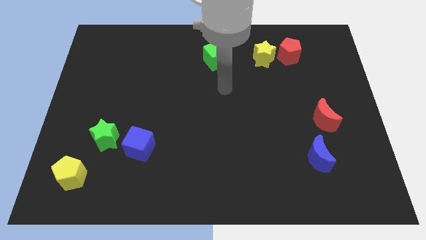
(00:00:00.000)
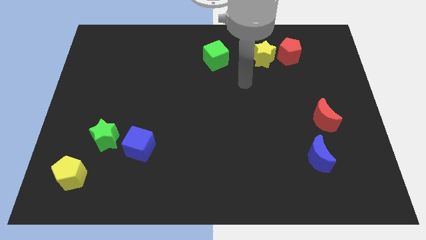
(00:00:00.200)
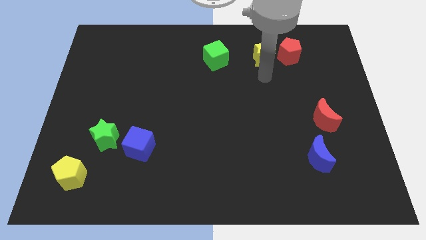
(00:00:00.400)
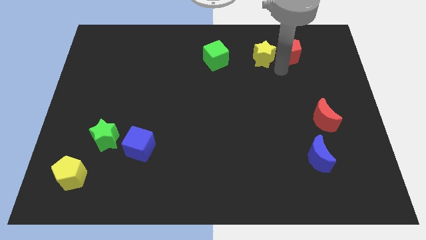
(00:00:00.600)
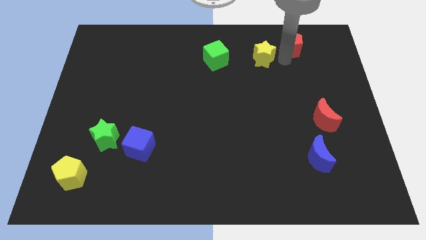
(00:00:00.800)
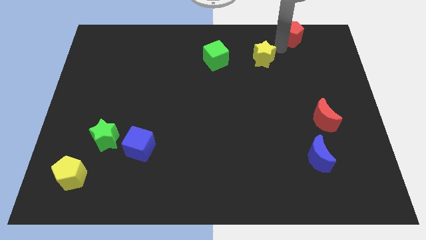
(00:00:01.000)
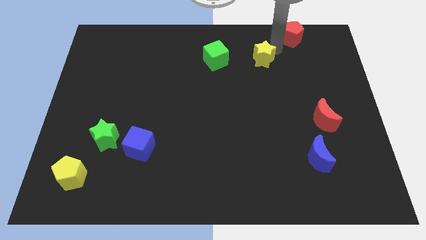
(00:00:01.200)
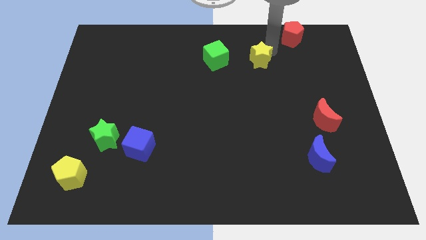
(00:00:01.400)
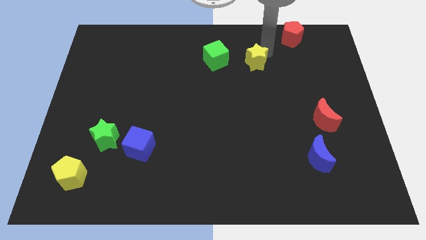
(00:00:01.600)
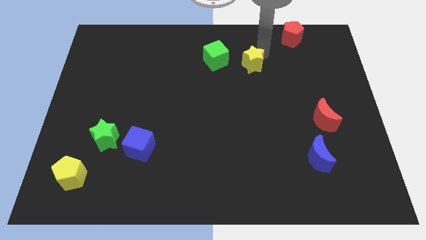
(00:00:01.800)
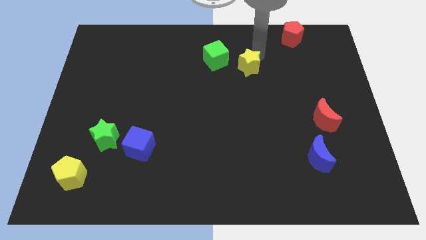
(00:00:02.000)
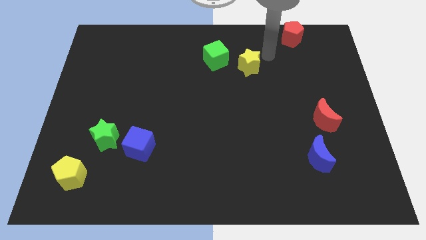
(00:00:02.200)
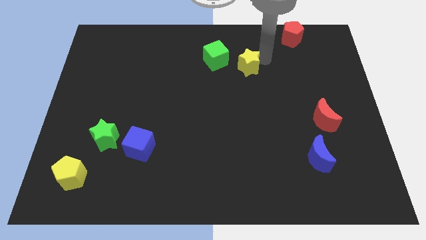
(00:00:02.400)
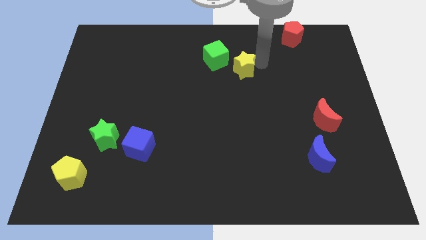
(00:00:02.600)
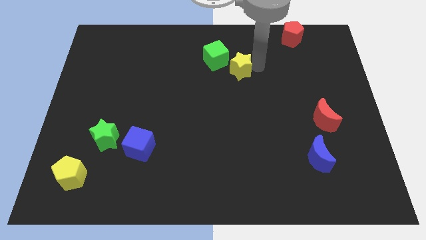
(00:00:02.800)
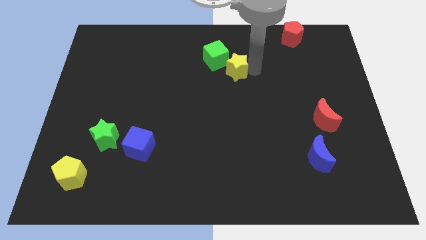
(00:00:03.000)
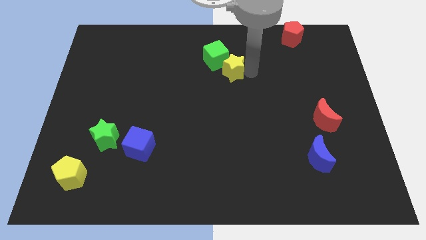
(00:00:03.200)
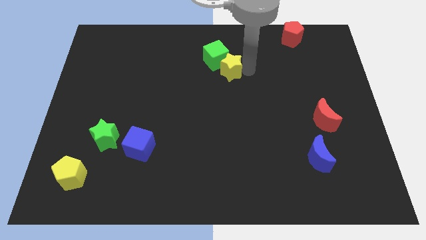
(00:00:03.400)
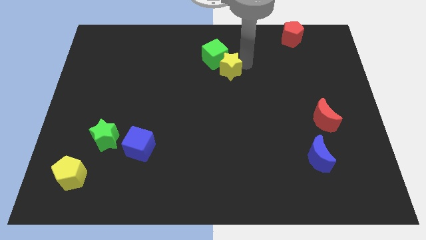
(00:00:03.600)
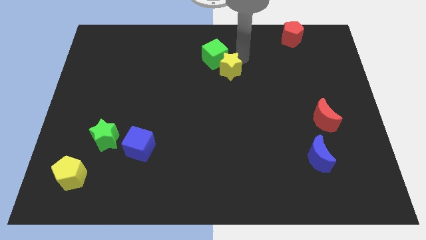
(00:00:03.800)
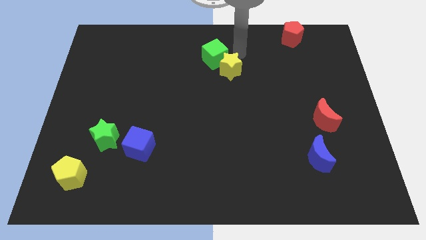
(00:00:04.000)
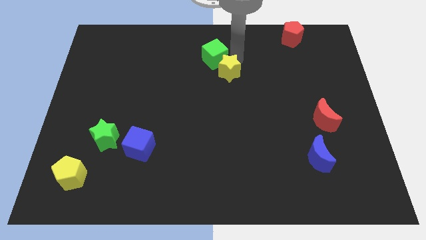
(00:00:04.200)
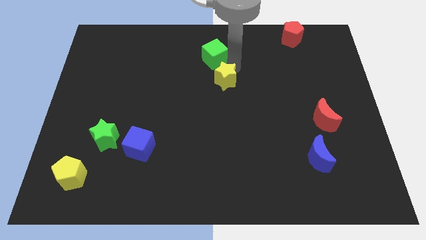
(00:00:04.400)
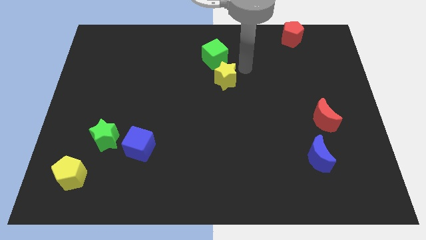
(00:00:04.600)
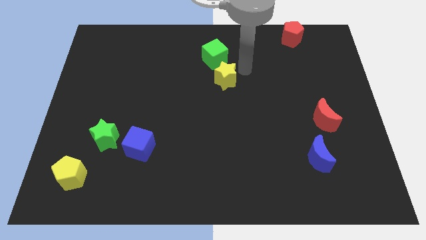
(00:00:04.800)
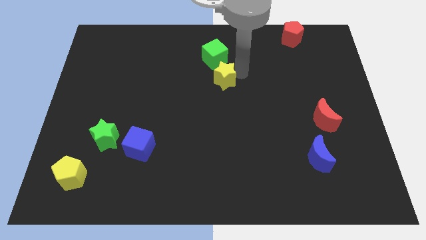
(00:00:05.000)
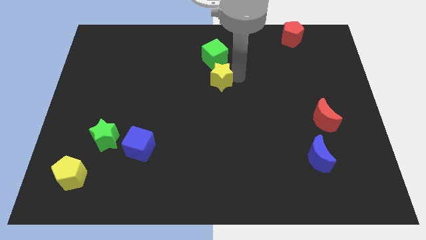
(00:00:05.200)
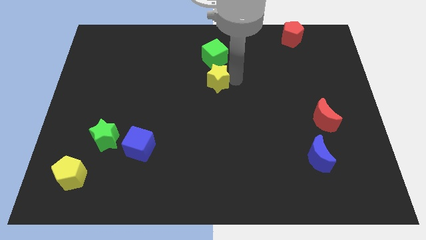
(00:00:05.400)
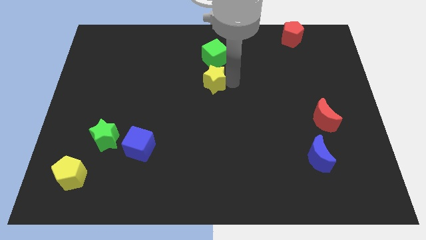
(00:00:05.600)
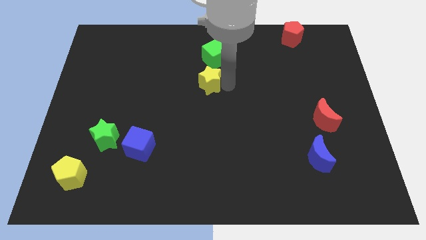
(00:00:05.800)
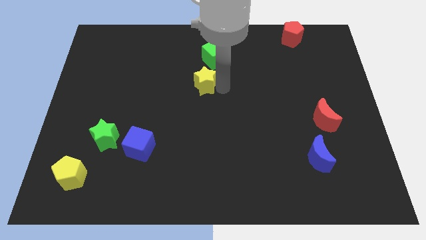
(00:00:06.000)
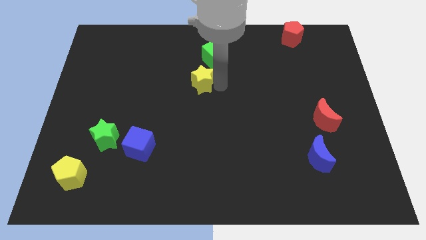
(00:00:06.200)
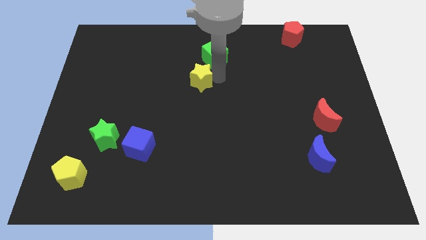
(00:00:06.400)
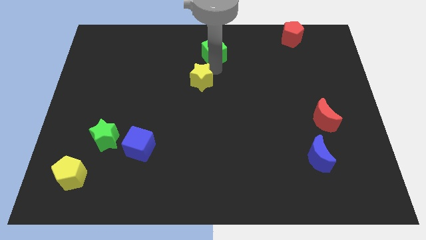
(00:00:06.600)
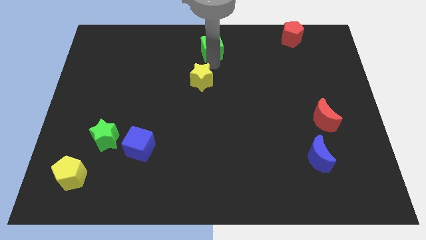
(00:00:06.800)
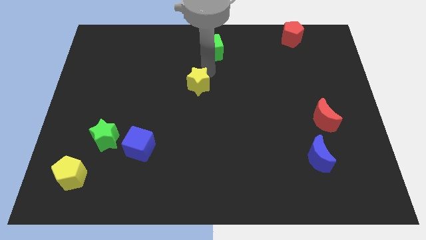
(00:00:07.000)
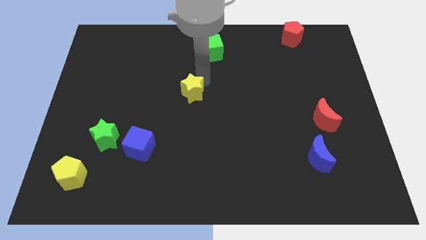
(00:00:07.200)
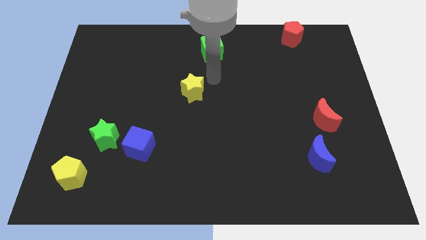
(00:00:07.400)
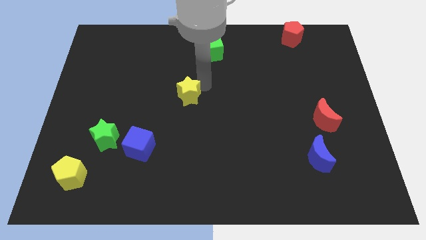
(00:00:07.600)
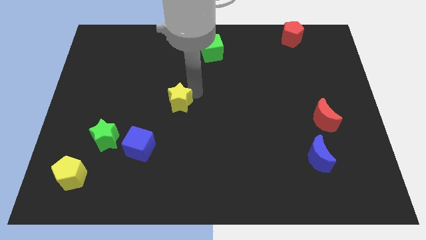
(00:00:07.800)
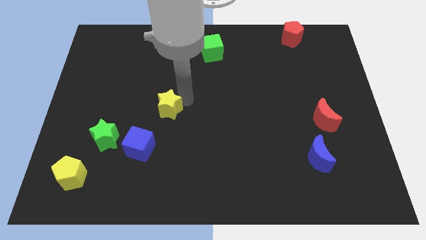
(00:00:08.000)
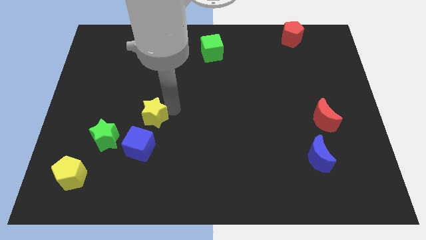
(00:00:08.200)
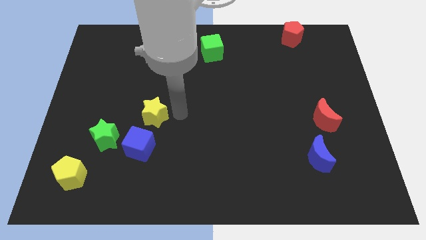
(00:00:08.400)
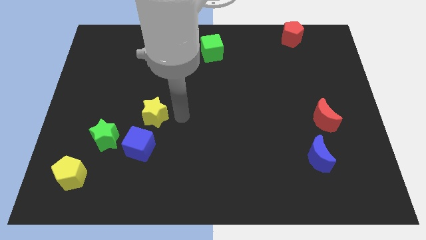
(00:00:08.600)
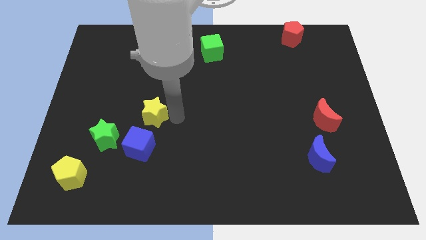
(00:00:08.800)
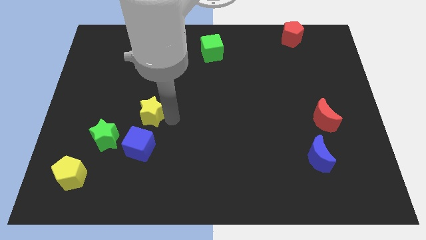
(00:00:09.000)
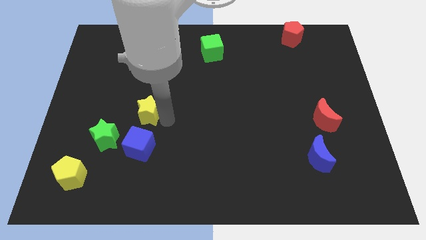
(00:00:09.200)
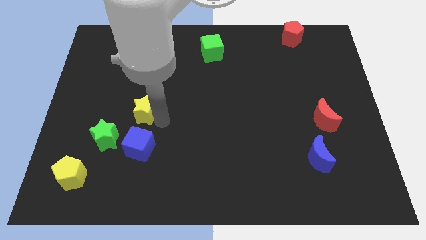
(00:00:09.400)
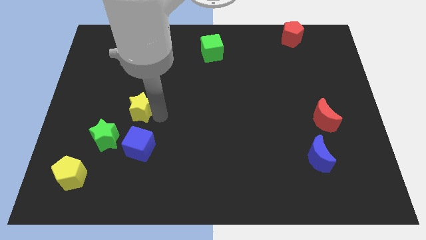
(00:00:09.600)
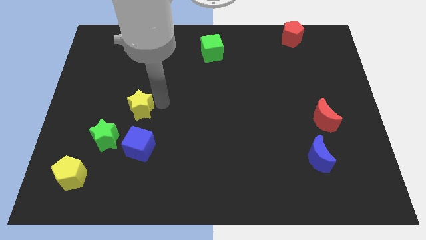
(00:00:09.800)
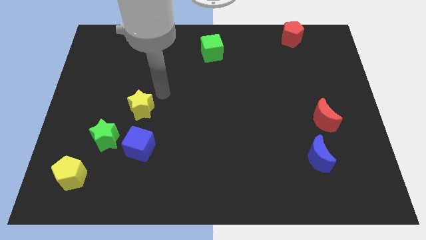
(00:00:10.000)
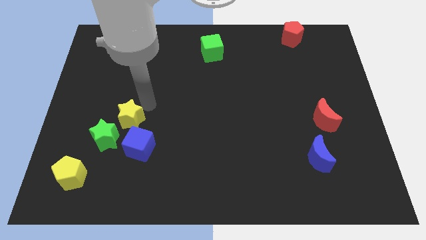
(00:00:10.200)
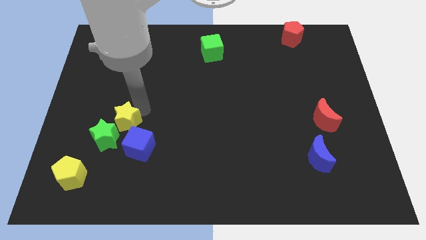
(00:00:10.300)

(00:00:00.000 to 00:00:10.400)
move the yellow star next to the green star

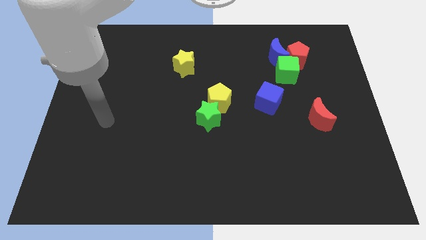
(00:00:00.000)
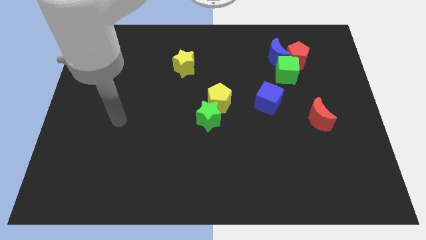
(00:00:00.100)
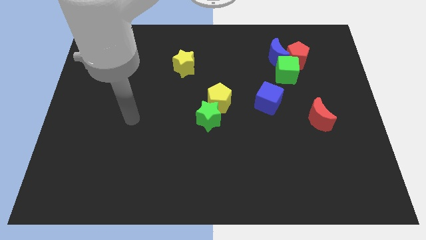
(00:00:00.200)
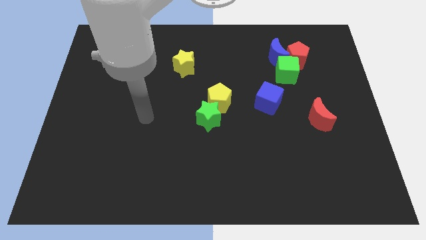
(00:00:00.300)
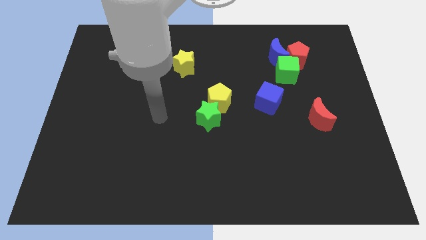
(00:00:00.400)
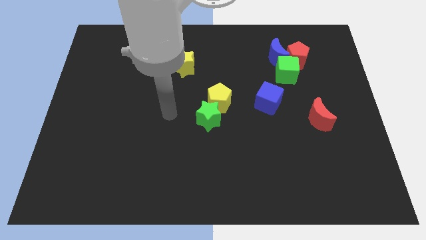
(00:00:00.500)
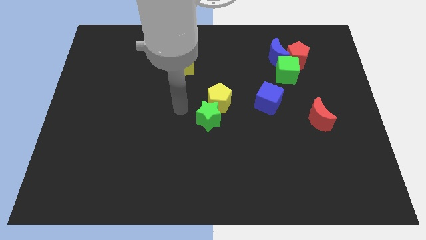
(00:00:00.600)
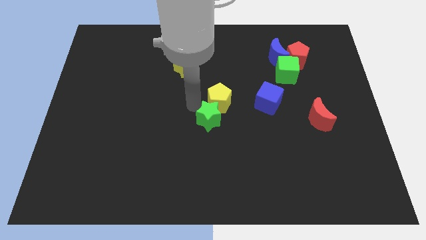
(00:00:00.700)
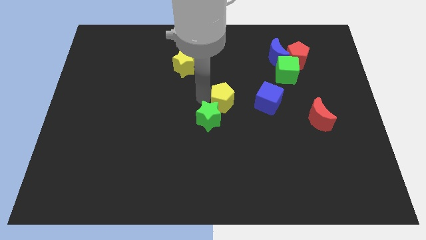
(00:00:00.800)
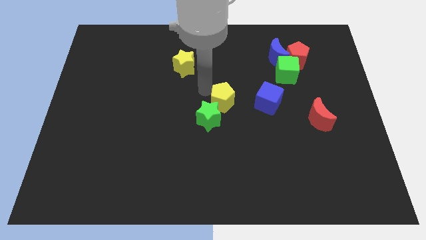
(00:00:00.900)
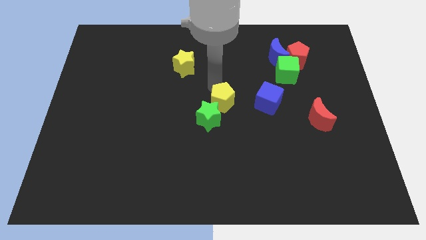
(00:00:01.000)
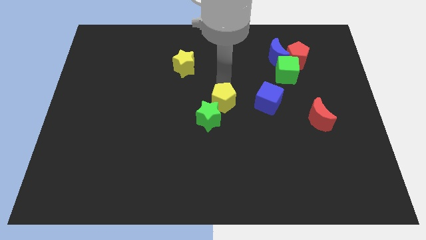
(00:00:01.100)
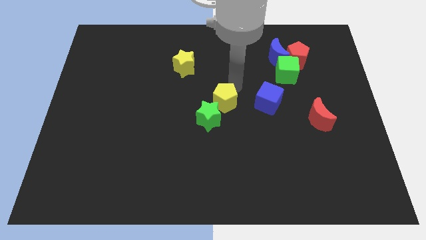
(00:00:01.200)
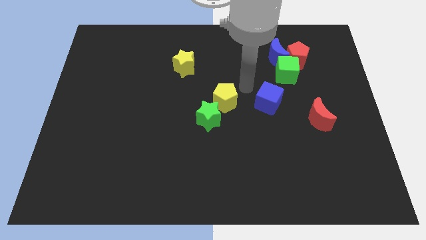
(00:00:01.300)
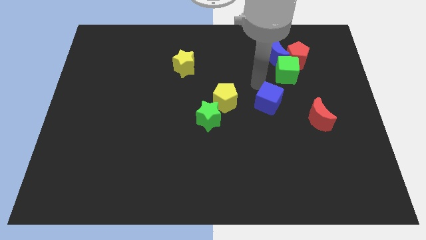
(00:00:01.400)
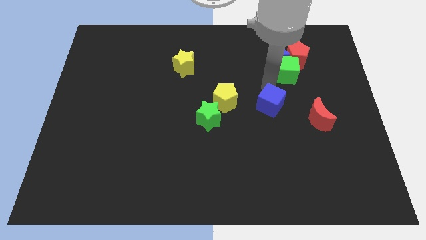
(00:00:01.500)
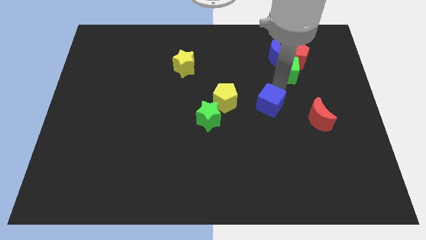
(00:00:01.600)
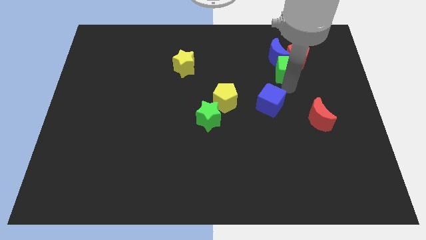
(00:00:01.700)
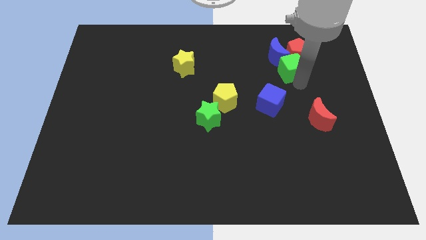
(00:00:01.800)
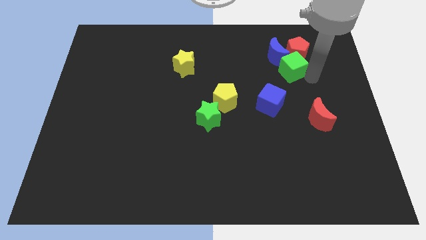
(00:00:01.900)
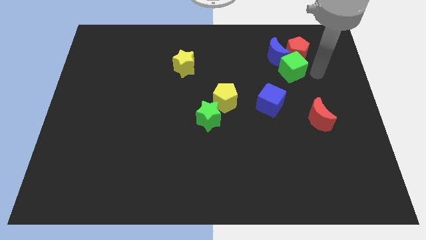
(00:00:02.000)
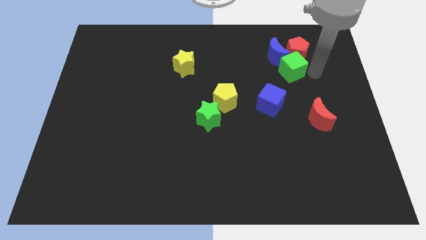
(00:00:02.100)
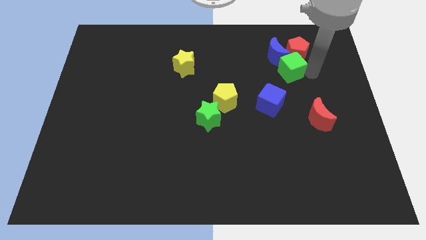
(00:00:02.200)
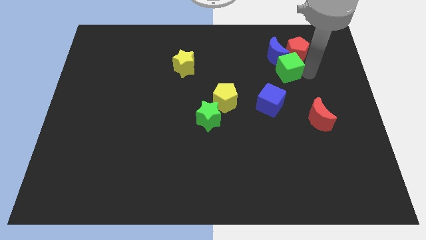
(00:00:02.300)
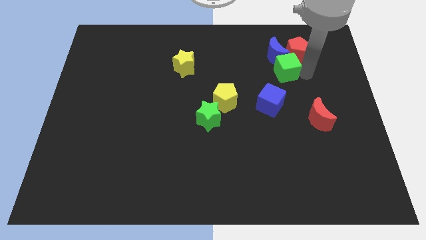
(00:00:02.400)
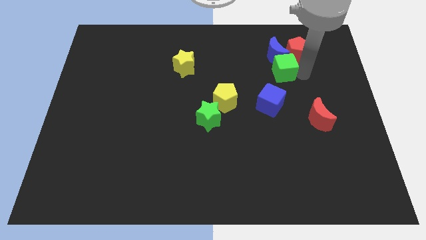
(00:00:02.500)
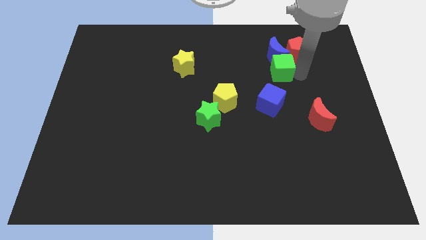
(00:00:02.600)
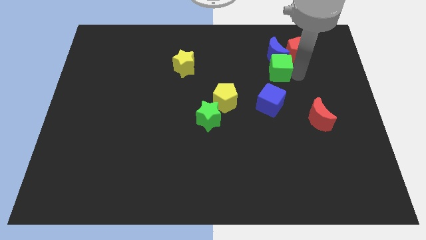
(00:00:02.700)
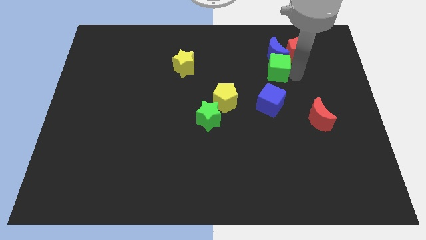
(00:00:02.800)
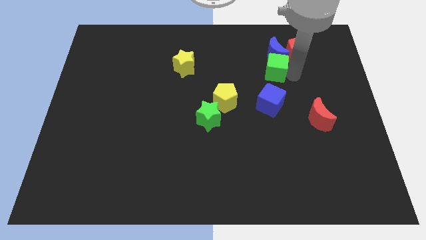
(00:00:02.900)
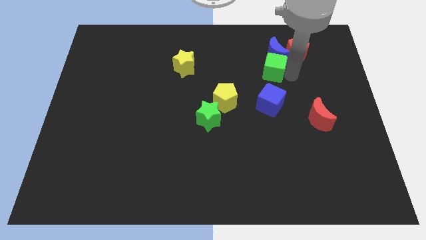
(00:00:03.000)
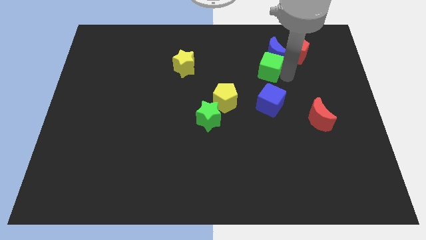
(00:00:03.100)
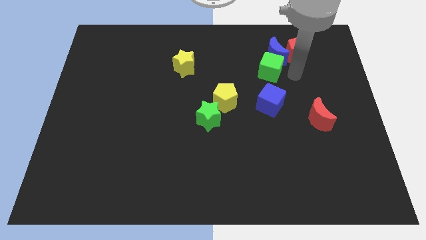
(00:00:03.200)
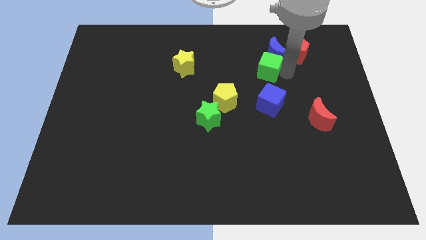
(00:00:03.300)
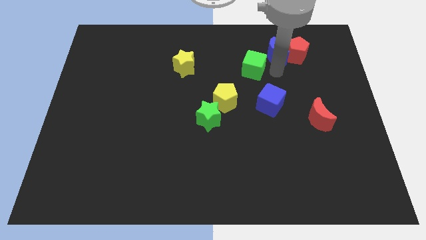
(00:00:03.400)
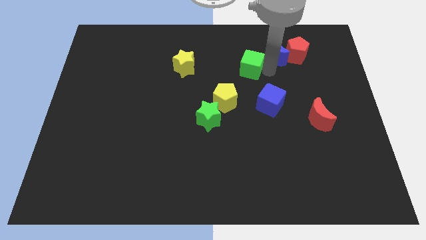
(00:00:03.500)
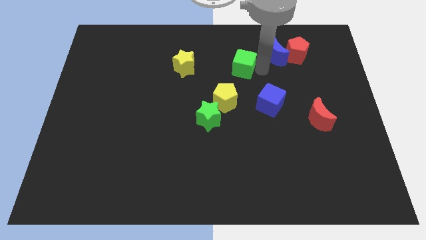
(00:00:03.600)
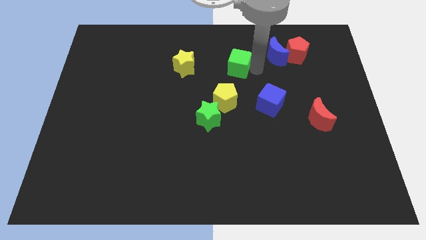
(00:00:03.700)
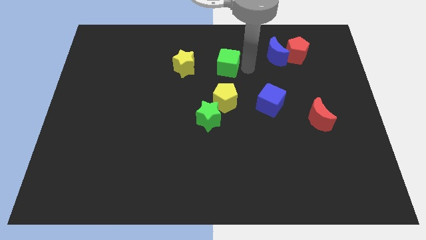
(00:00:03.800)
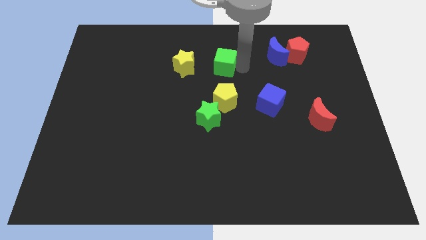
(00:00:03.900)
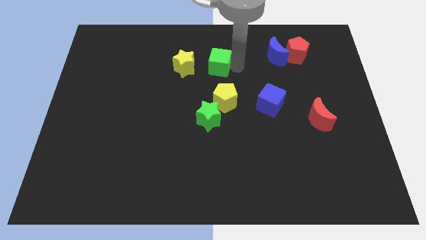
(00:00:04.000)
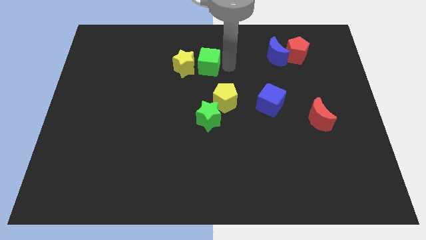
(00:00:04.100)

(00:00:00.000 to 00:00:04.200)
put the green cube close to the yellow star
